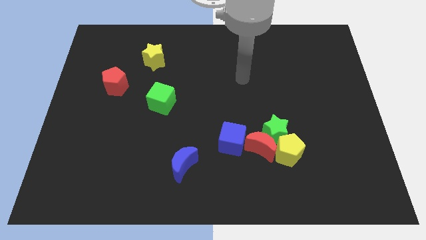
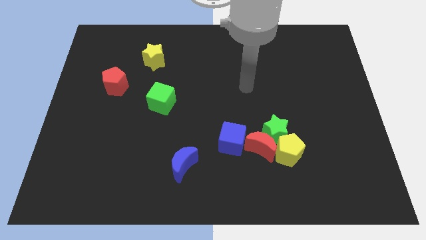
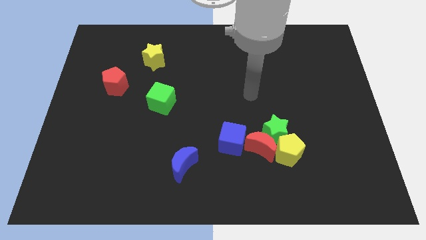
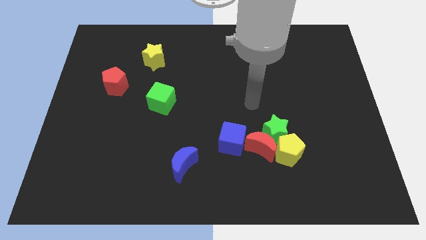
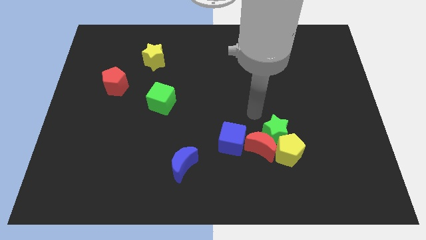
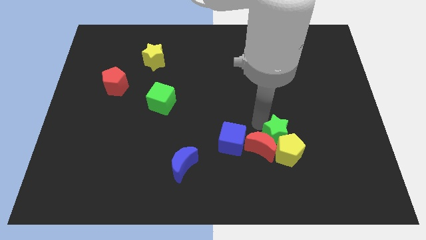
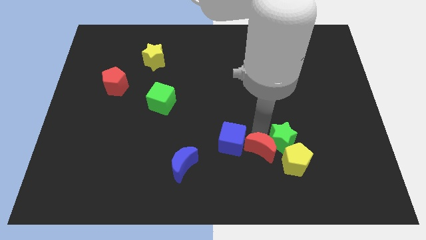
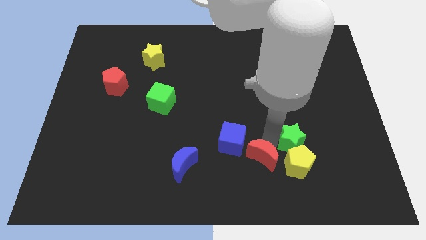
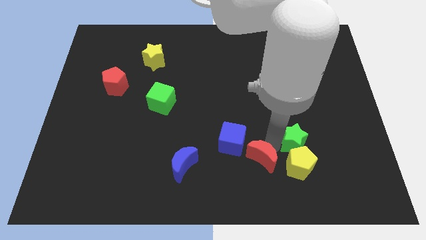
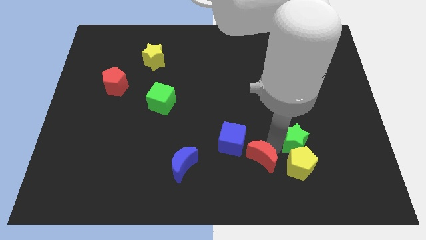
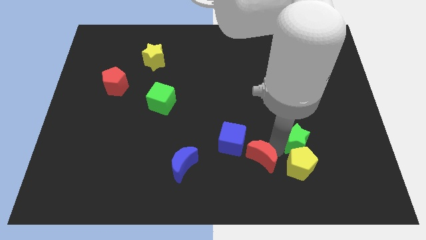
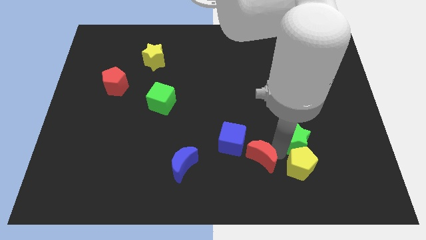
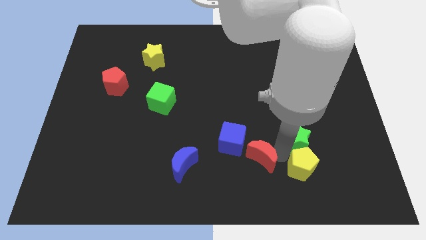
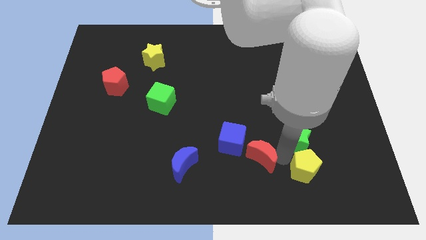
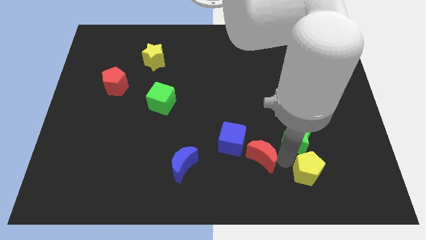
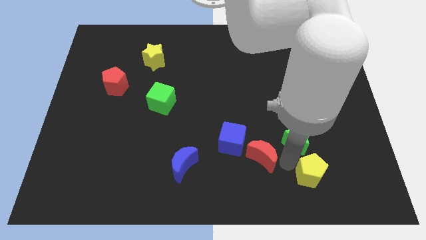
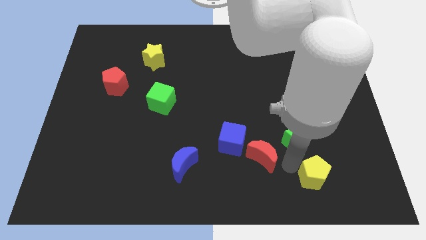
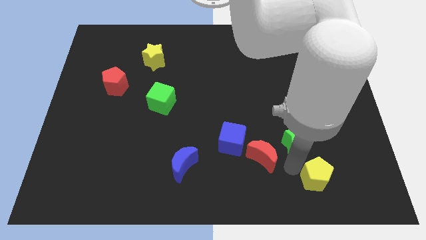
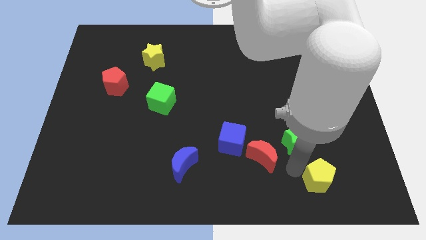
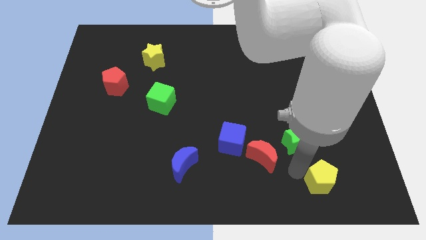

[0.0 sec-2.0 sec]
separate the yellow pentagon from the green star and red moon

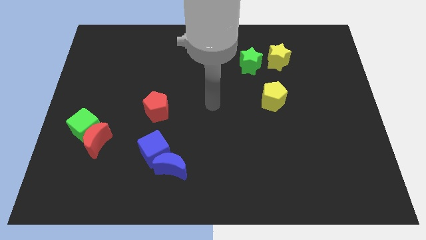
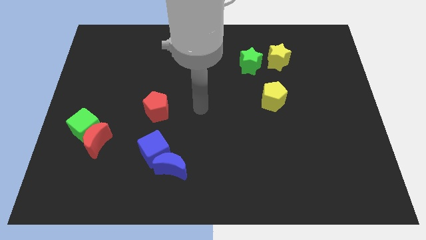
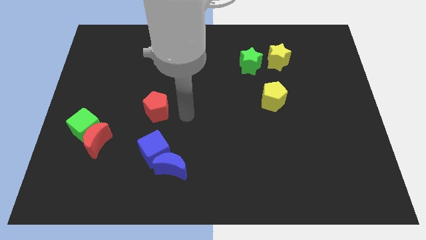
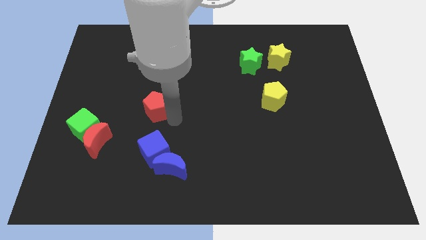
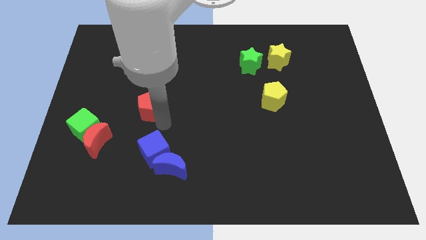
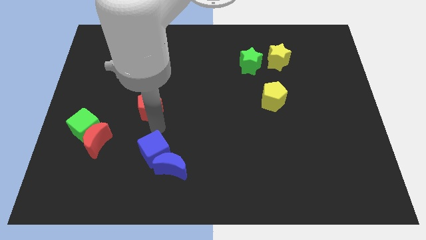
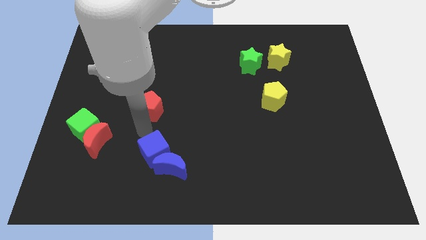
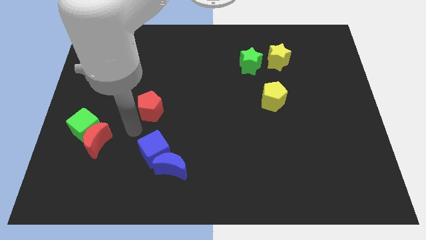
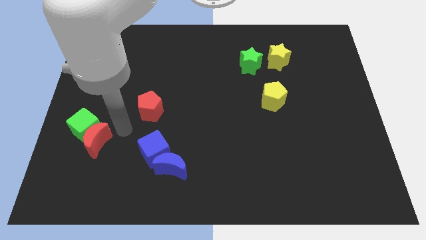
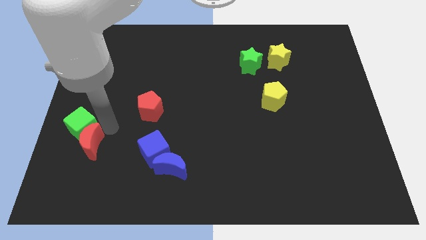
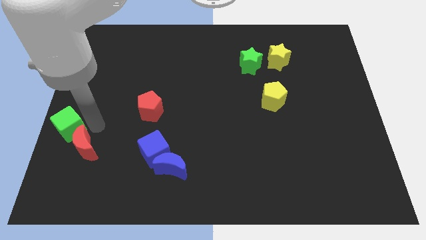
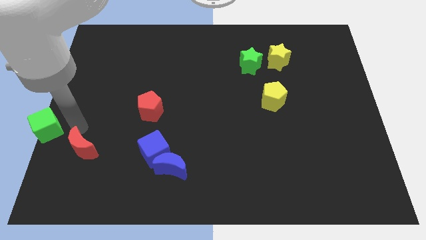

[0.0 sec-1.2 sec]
pull the red moon apart from the green cube

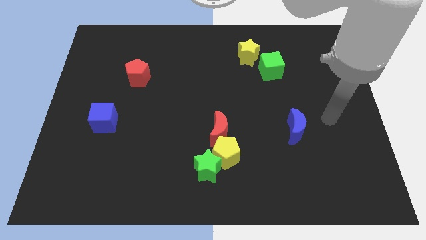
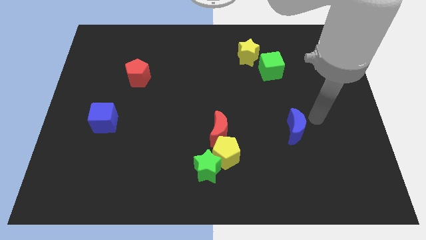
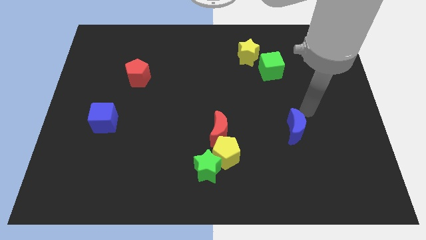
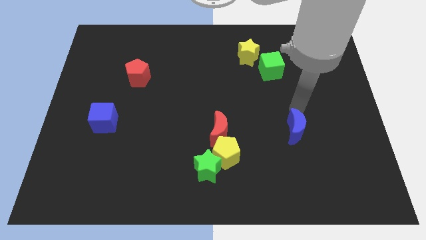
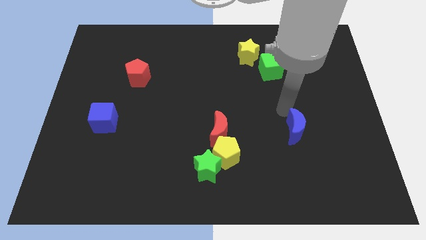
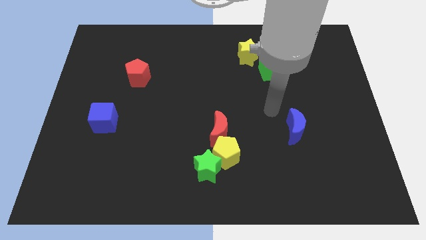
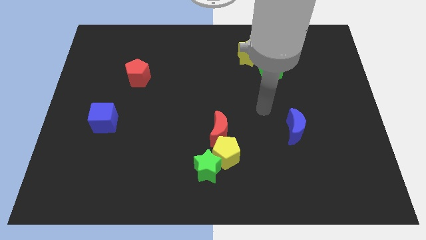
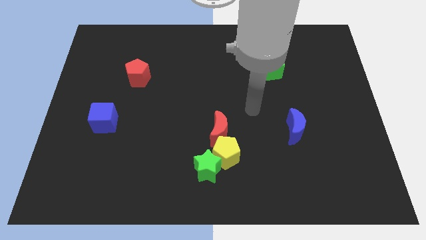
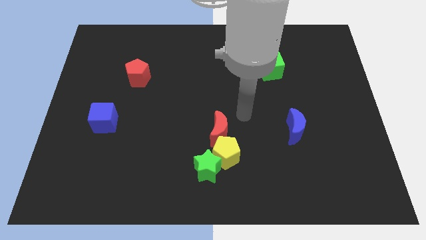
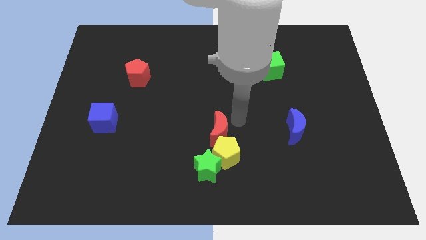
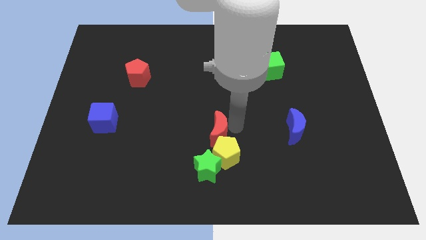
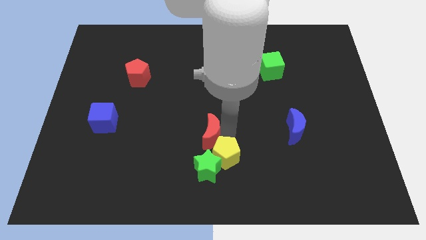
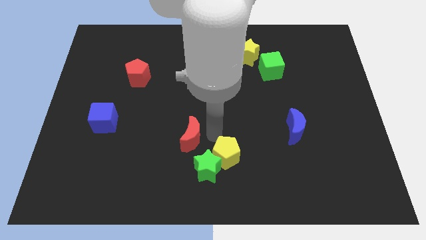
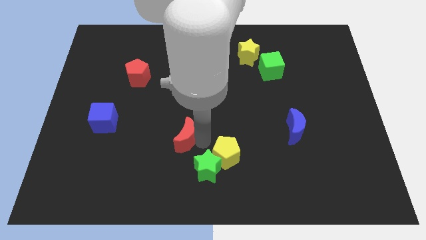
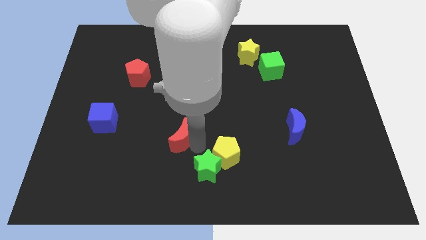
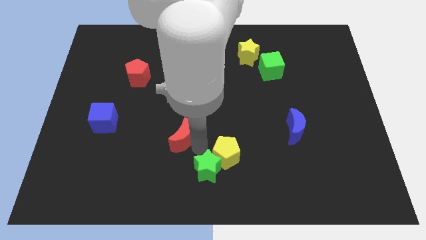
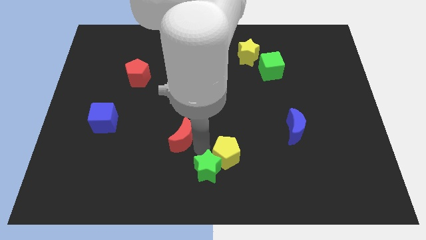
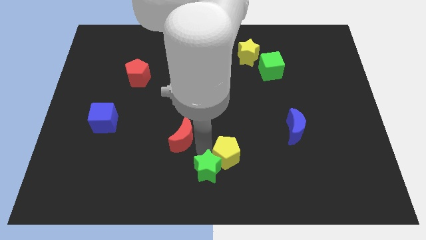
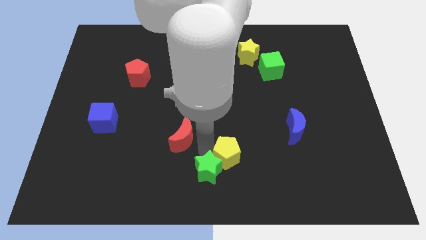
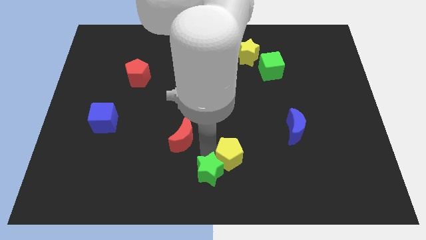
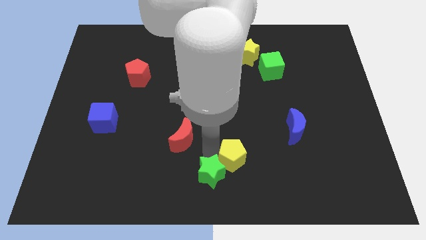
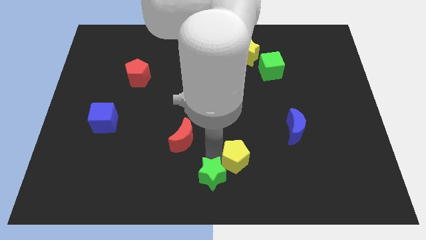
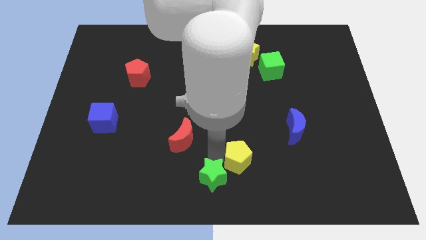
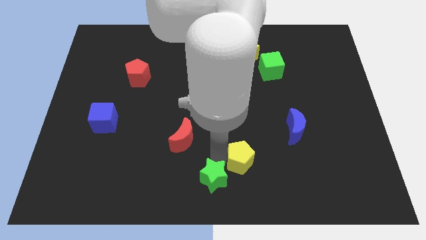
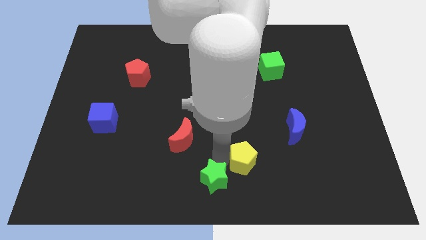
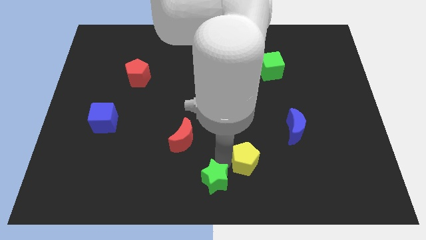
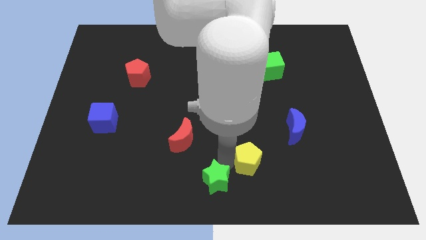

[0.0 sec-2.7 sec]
move the yellow pentagon away from the green star and red moon

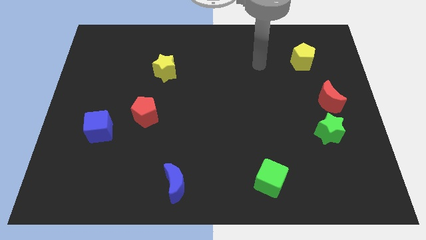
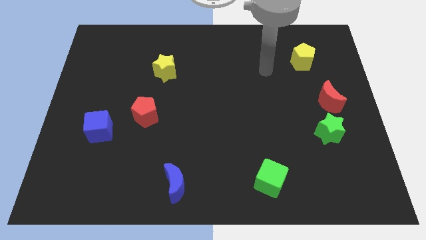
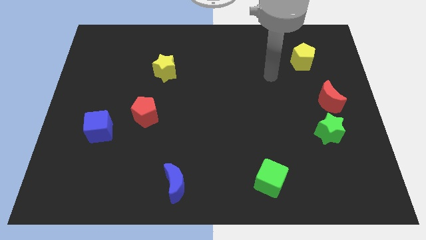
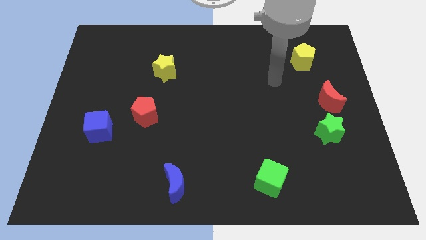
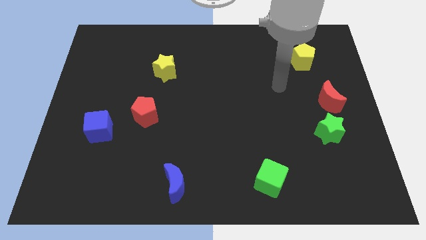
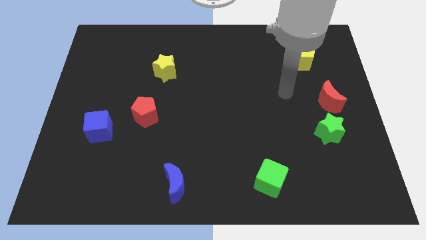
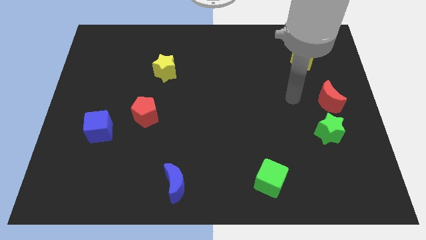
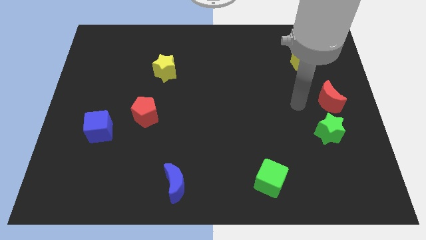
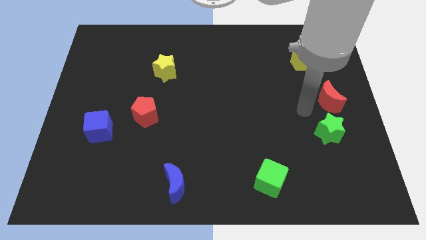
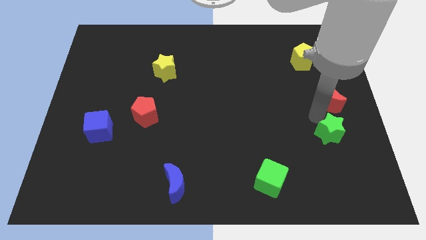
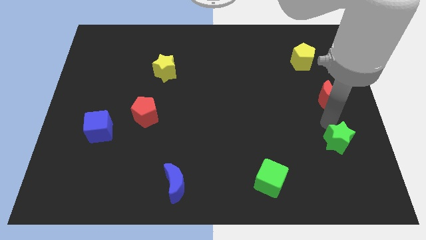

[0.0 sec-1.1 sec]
separate the red moon from the green star

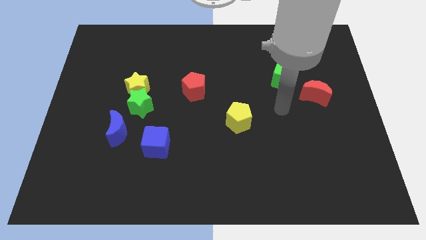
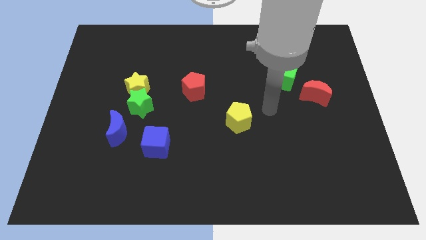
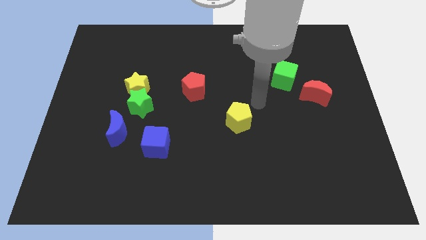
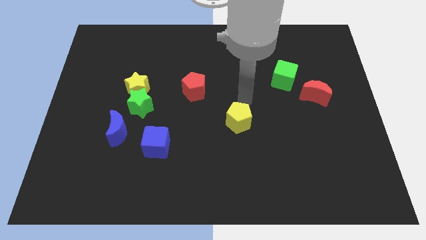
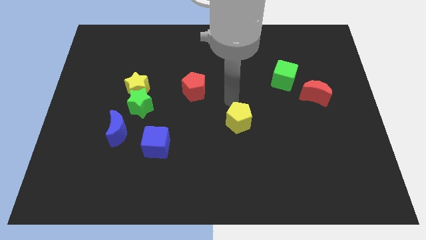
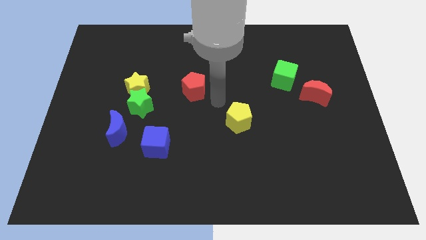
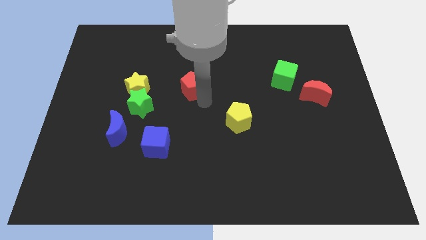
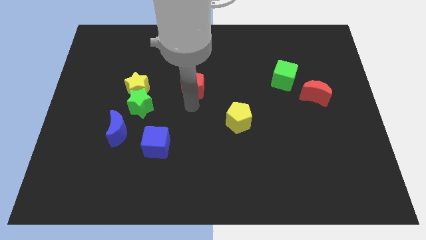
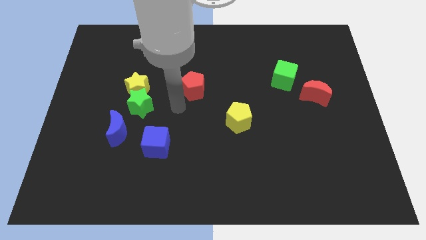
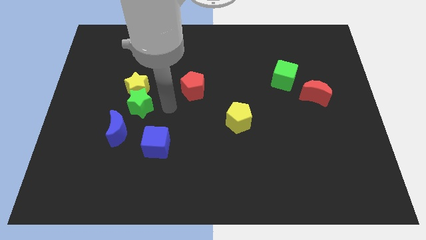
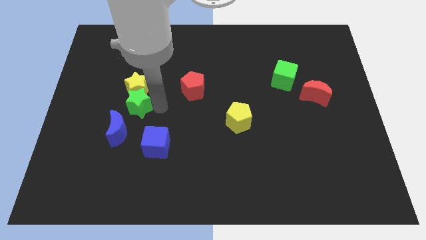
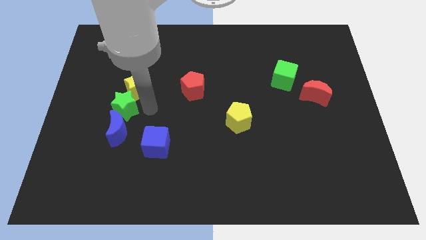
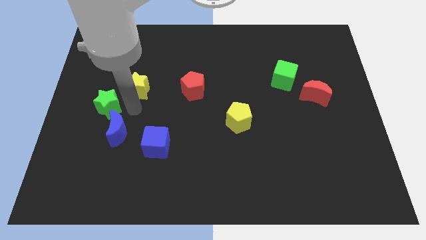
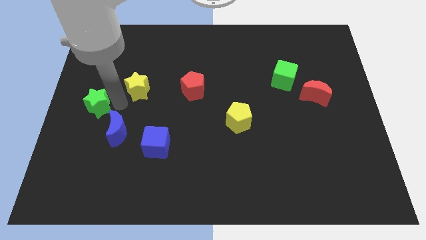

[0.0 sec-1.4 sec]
pull the yellow star apart from the green star

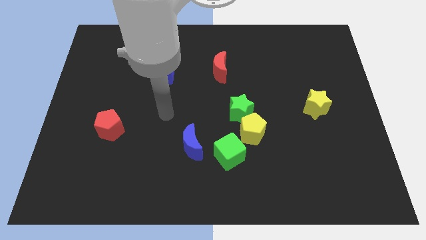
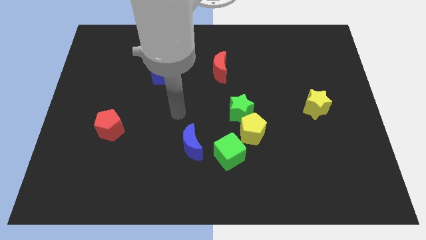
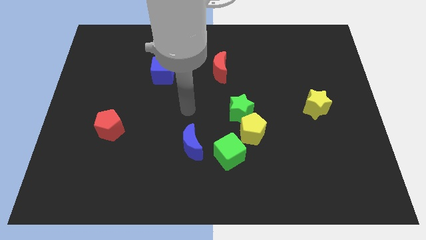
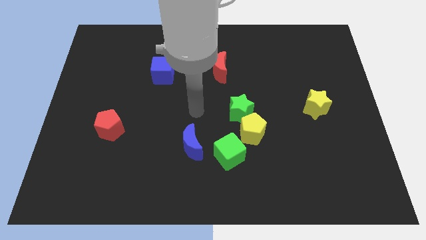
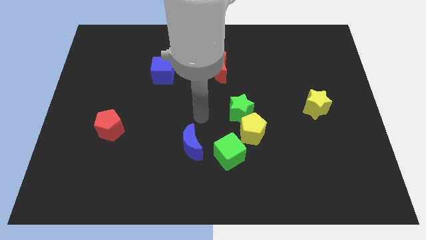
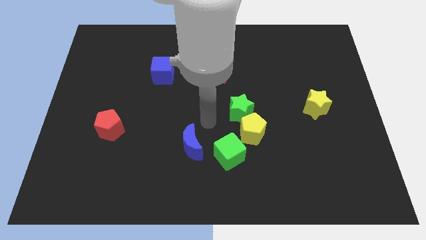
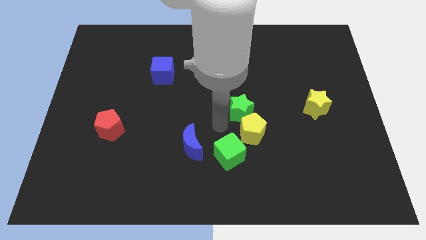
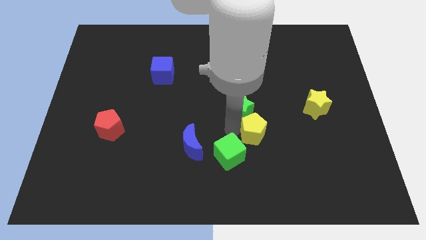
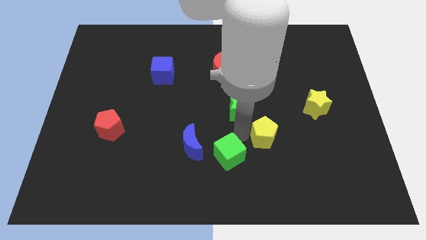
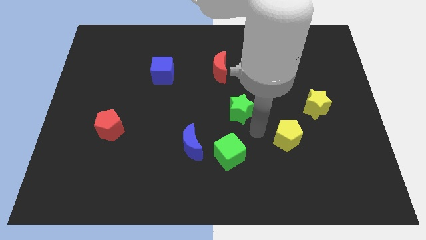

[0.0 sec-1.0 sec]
separate the green star from the yellow pentagon

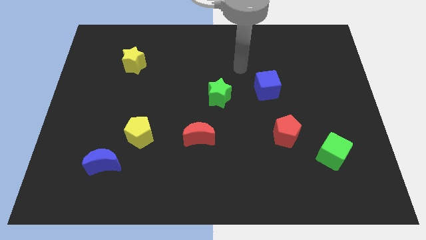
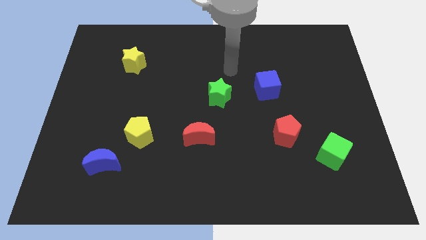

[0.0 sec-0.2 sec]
pull the blue moon apart from the yellow pentagon
